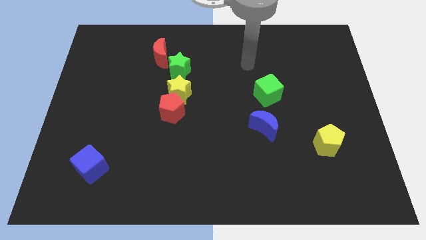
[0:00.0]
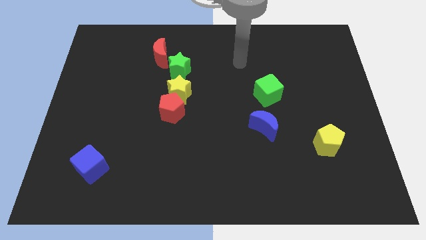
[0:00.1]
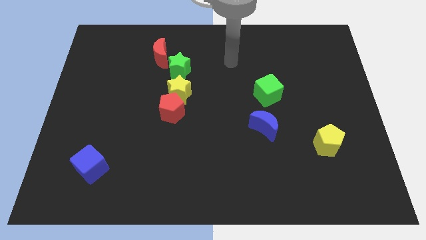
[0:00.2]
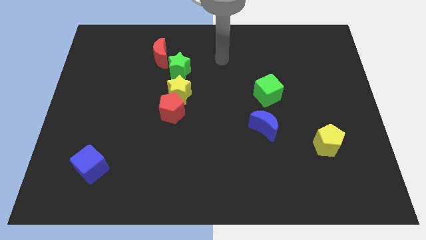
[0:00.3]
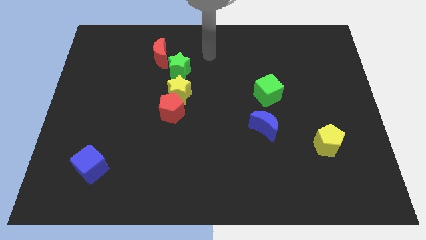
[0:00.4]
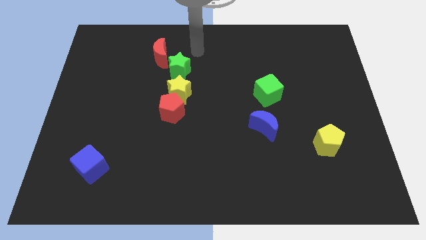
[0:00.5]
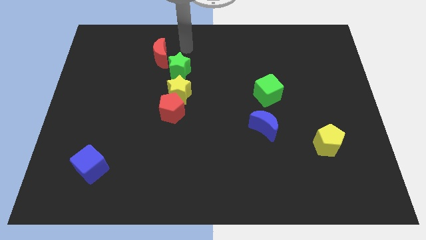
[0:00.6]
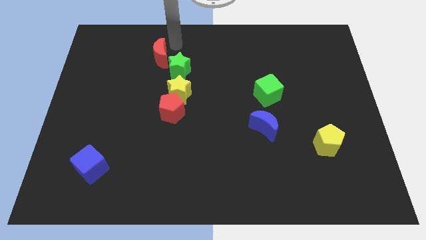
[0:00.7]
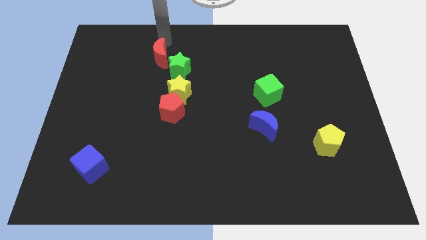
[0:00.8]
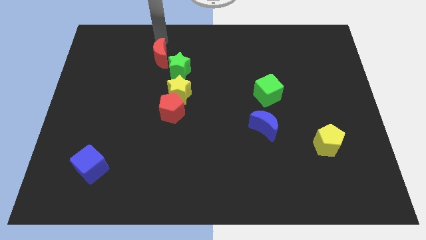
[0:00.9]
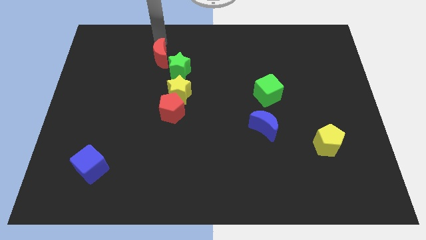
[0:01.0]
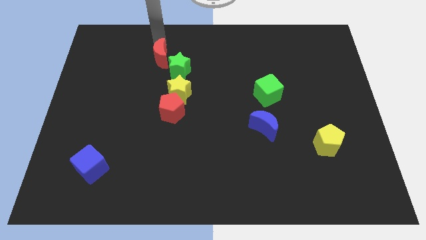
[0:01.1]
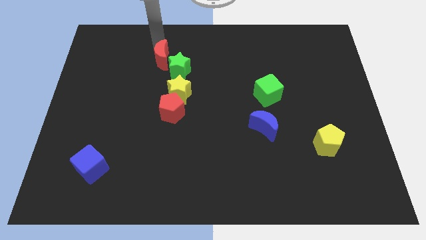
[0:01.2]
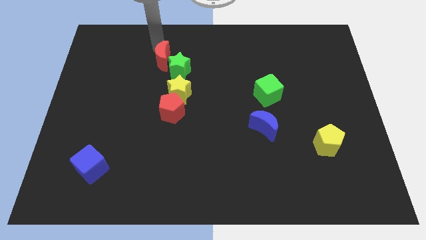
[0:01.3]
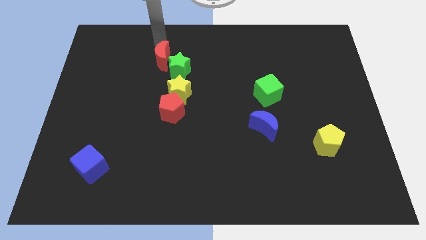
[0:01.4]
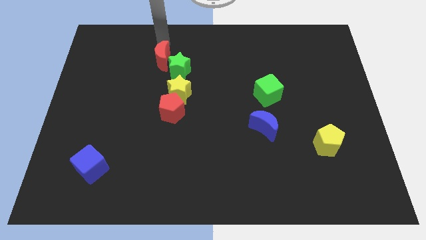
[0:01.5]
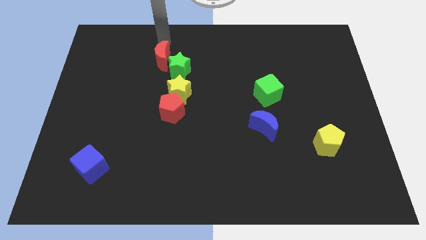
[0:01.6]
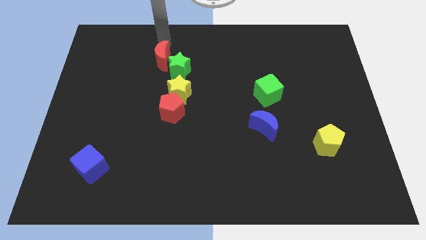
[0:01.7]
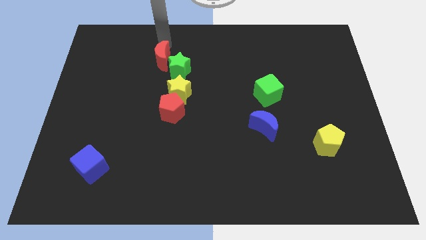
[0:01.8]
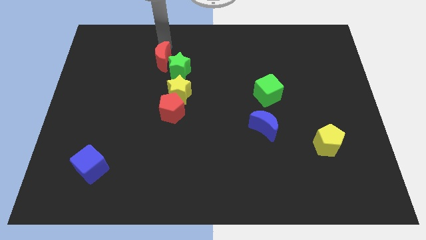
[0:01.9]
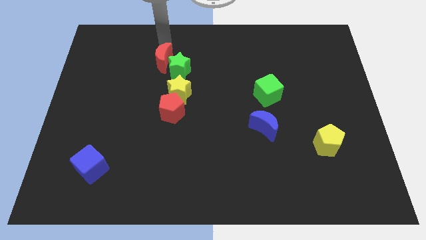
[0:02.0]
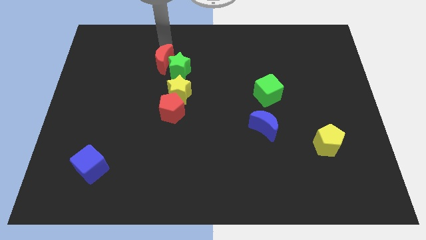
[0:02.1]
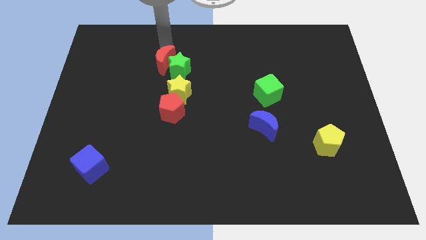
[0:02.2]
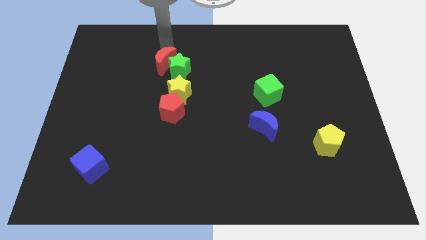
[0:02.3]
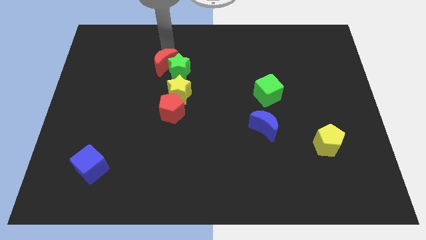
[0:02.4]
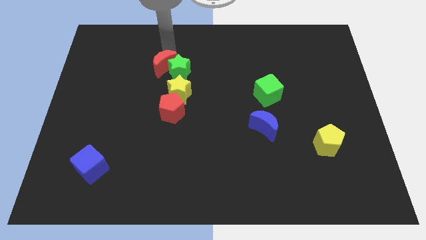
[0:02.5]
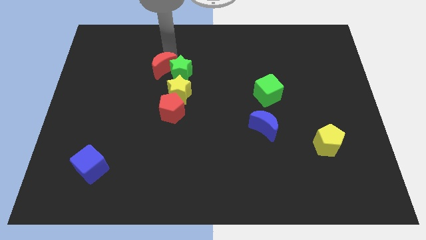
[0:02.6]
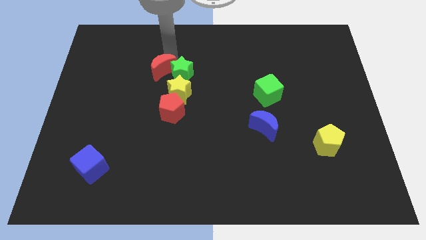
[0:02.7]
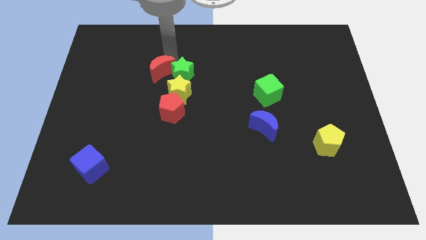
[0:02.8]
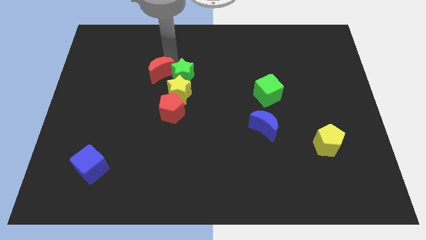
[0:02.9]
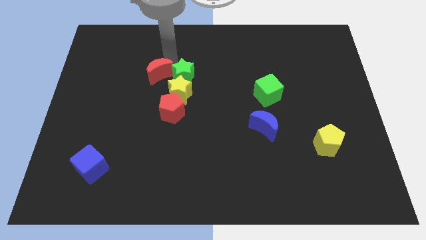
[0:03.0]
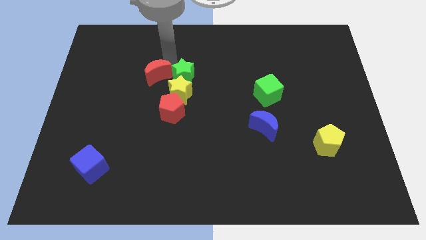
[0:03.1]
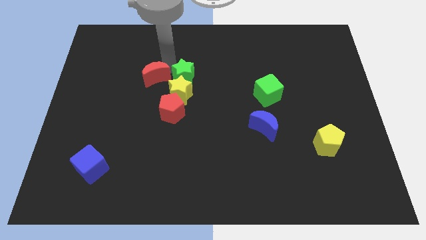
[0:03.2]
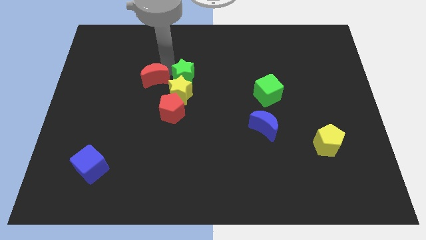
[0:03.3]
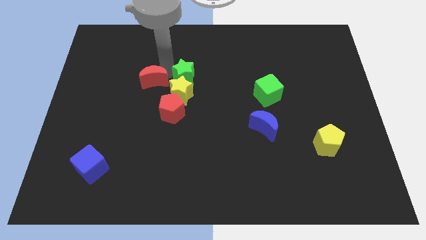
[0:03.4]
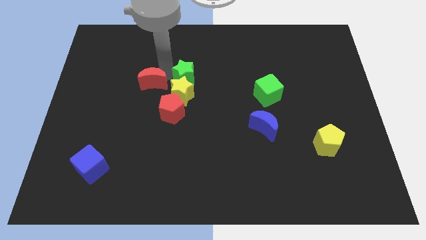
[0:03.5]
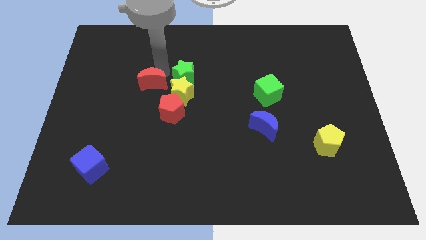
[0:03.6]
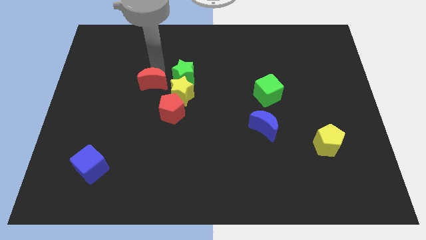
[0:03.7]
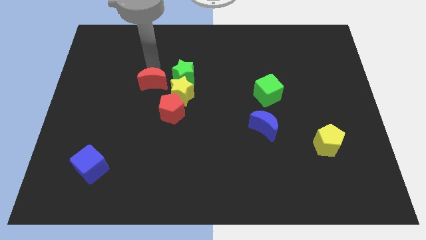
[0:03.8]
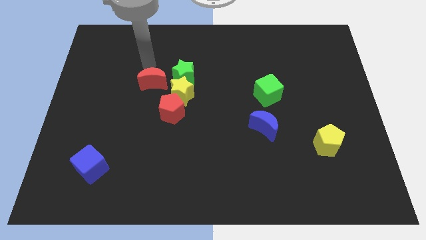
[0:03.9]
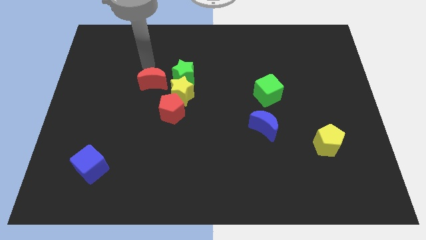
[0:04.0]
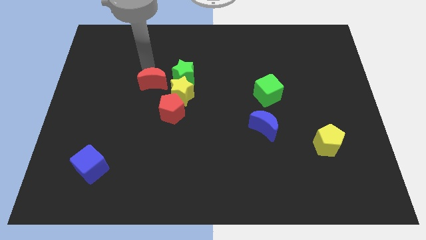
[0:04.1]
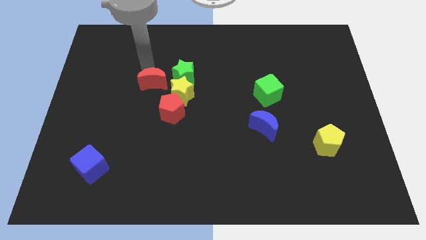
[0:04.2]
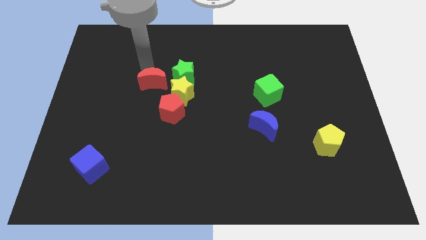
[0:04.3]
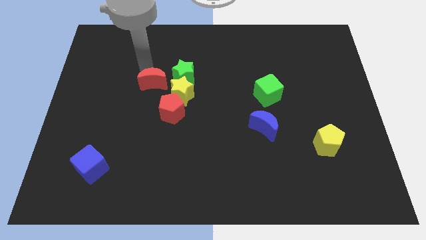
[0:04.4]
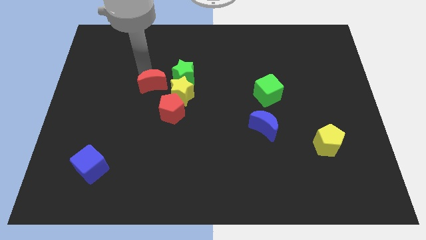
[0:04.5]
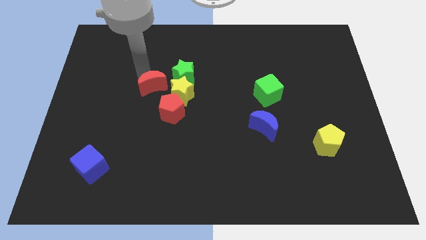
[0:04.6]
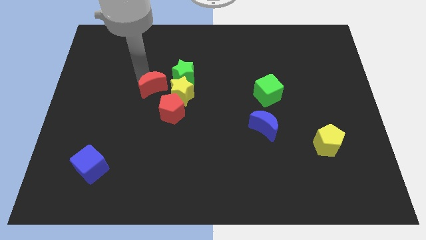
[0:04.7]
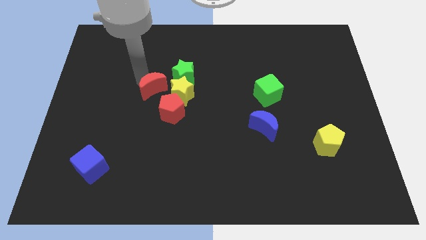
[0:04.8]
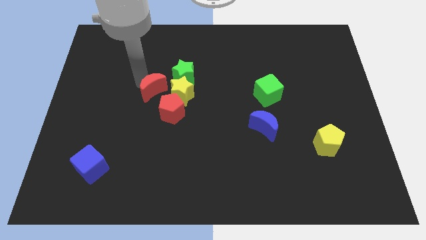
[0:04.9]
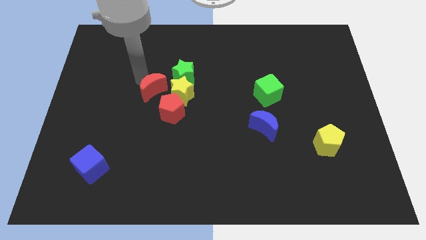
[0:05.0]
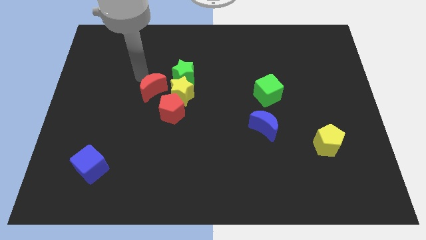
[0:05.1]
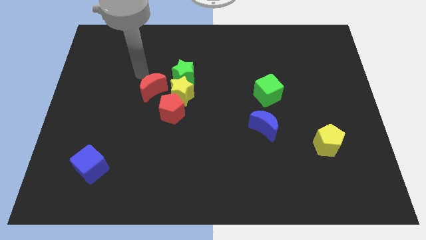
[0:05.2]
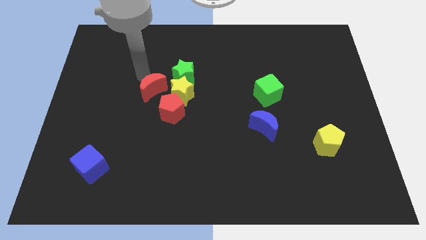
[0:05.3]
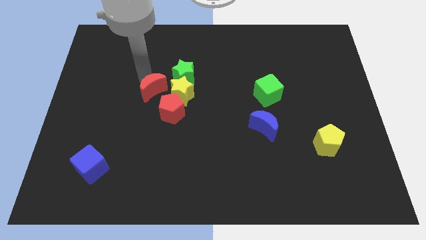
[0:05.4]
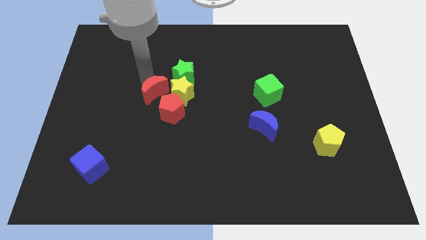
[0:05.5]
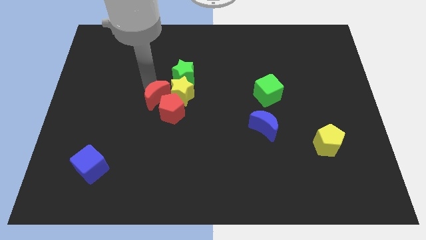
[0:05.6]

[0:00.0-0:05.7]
slide the red moon towards the red pentagon
